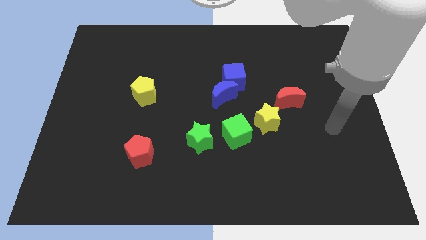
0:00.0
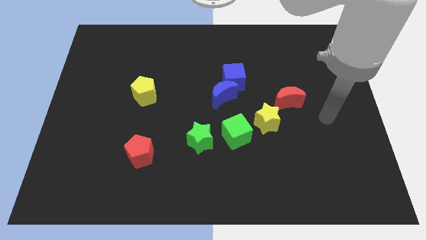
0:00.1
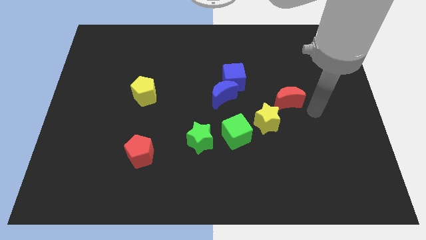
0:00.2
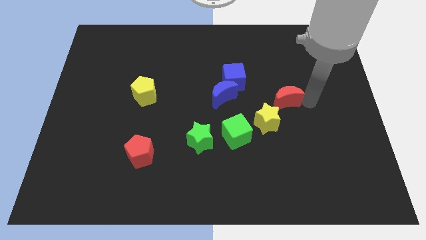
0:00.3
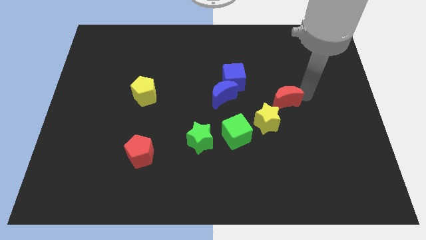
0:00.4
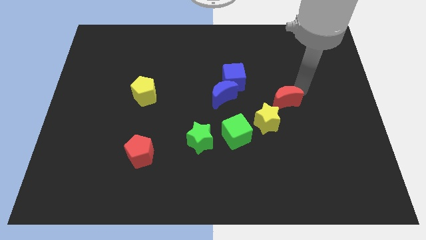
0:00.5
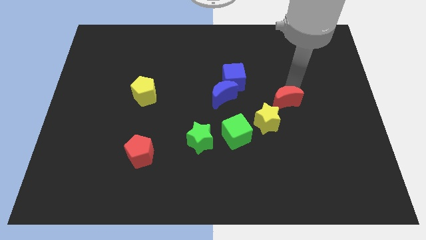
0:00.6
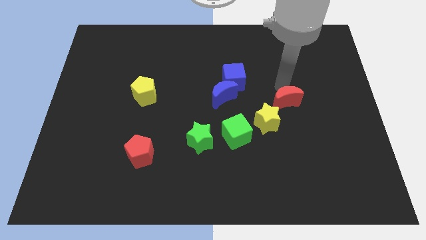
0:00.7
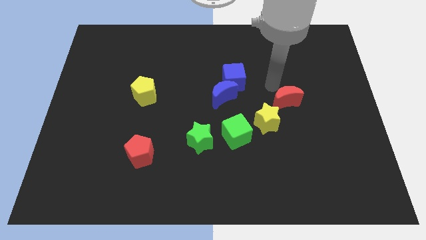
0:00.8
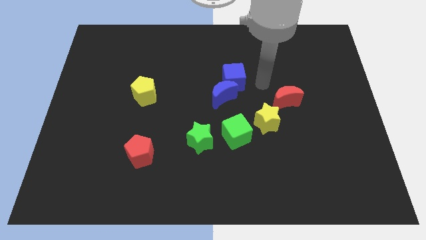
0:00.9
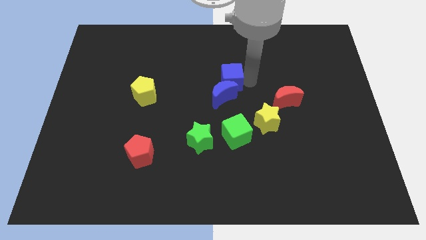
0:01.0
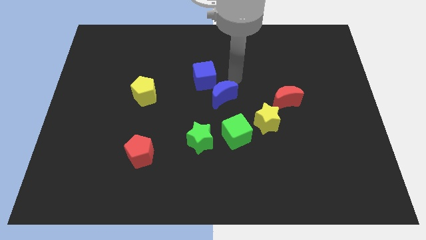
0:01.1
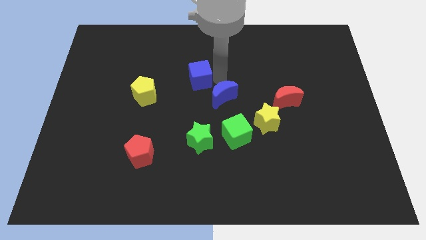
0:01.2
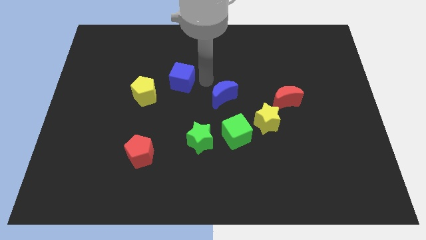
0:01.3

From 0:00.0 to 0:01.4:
move the blue moon away from the blue cube

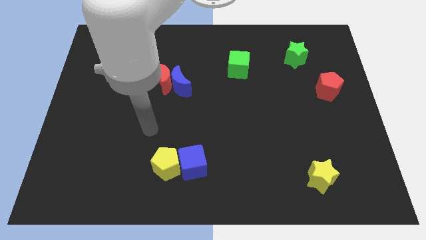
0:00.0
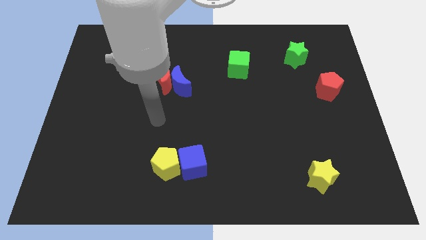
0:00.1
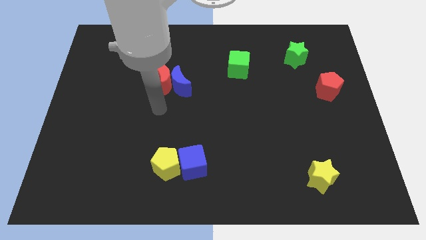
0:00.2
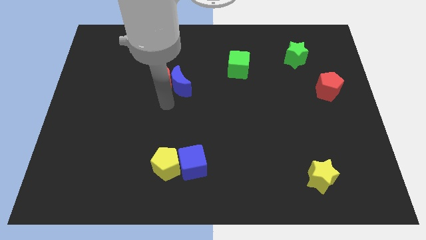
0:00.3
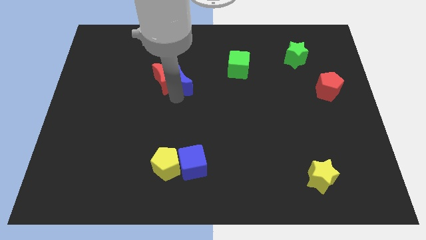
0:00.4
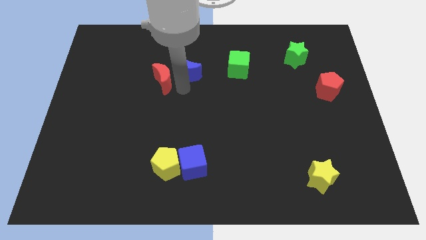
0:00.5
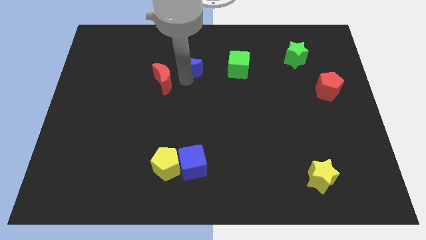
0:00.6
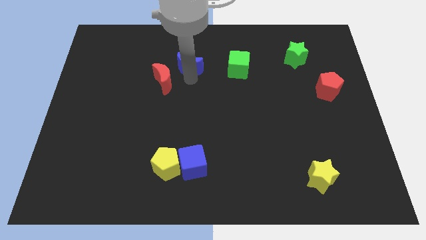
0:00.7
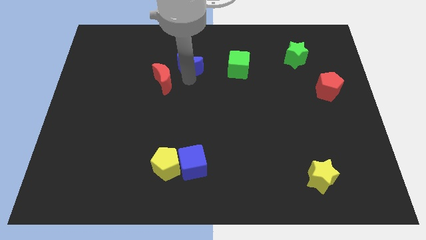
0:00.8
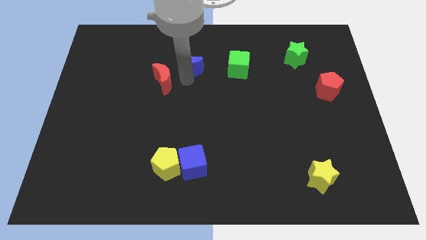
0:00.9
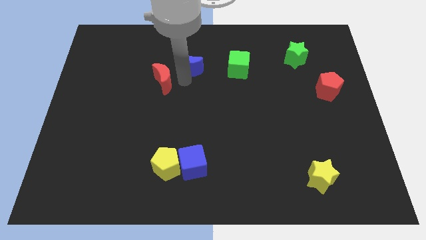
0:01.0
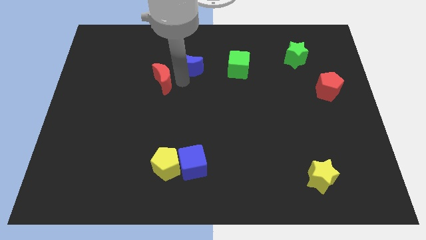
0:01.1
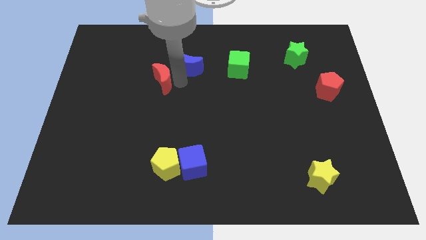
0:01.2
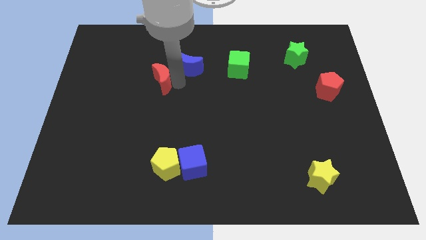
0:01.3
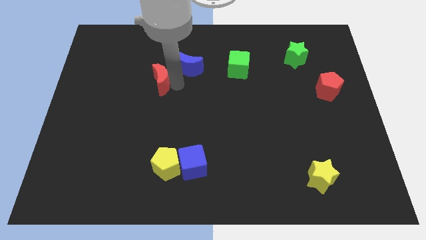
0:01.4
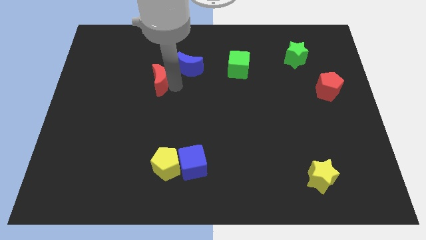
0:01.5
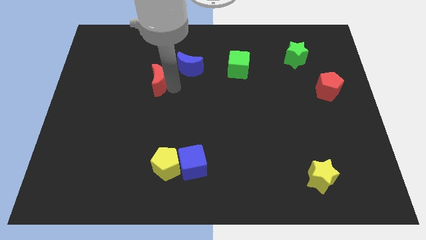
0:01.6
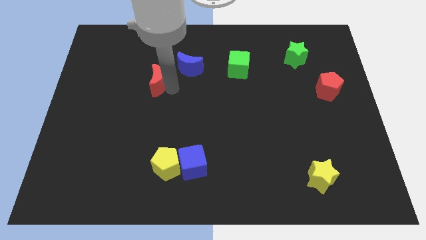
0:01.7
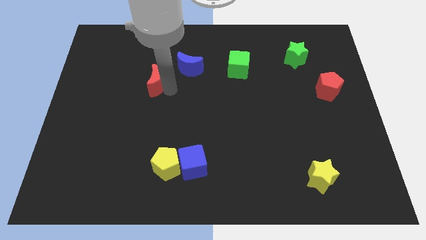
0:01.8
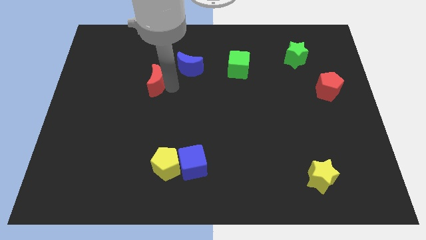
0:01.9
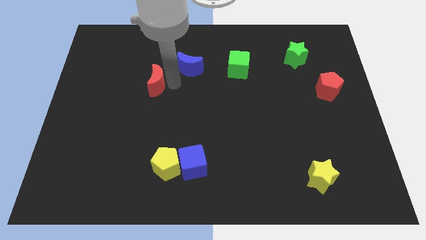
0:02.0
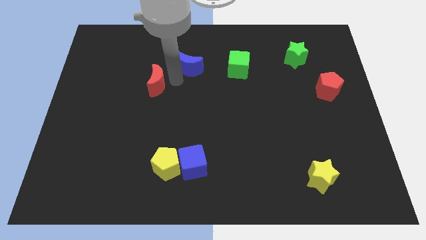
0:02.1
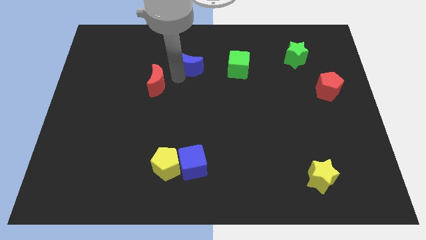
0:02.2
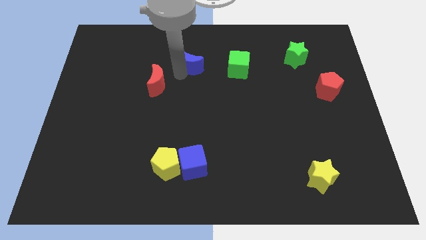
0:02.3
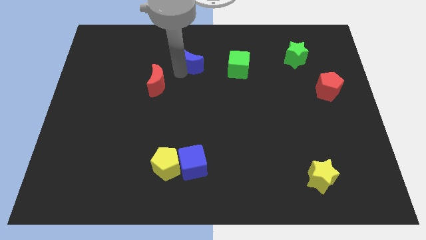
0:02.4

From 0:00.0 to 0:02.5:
separate the red moon from the blue moon

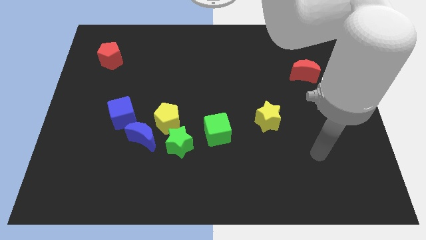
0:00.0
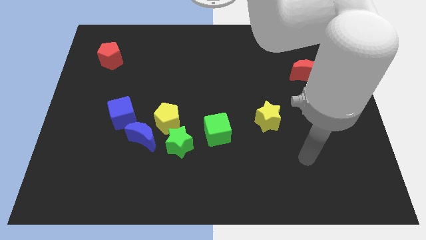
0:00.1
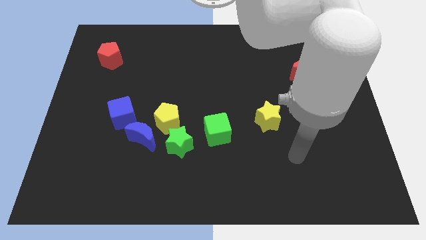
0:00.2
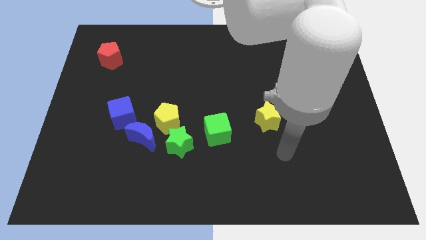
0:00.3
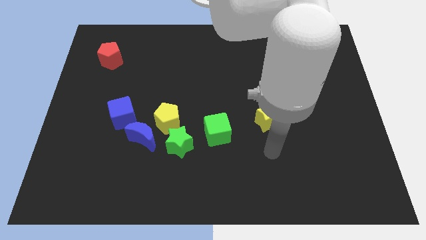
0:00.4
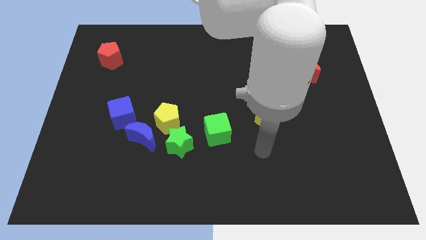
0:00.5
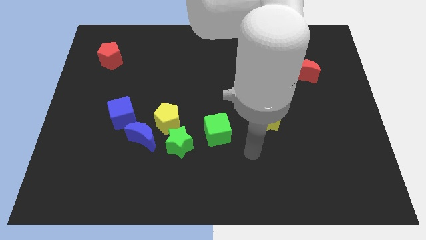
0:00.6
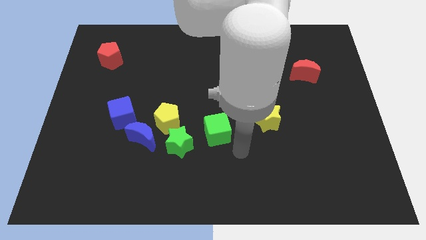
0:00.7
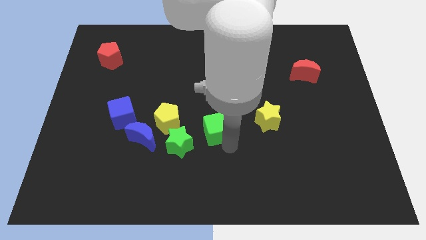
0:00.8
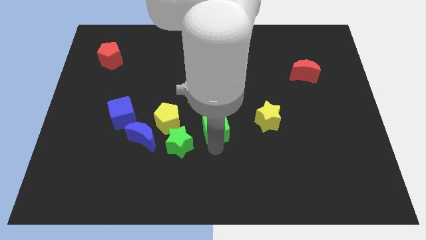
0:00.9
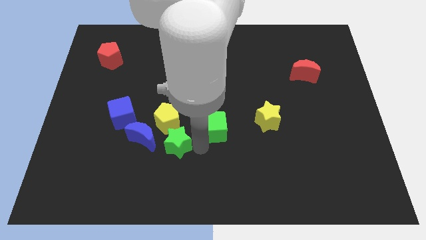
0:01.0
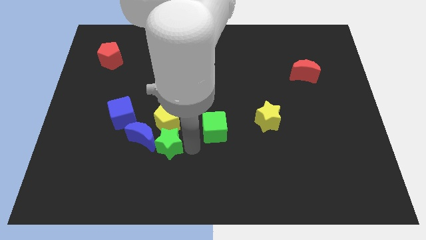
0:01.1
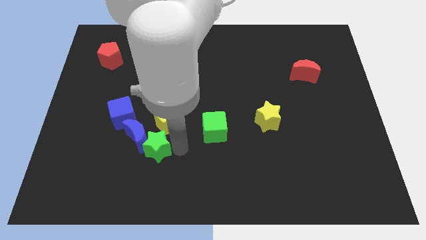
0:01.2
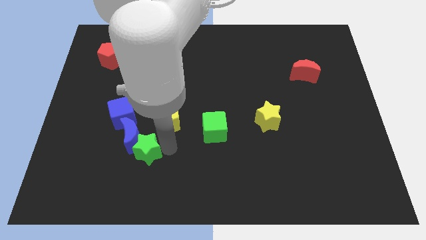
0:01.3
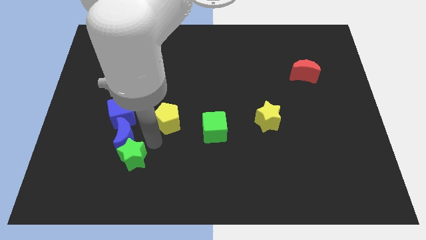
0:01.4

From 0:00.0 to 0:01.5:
separate the yellow pentagon from the blue moon and green star

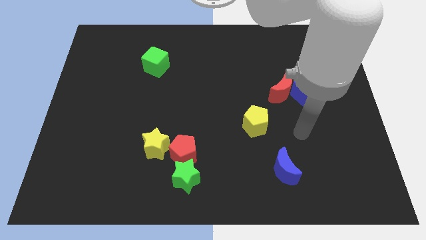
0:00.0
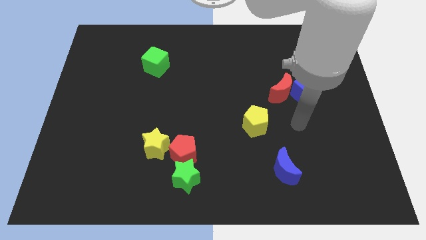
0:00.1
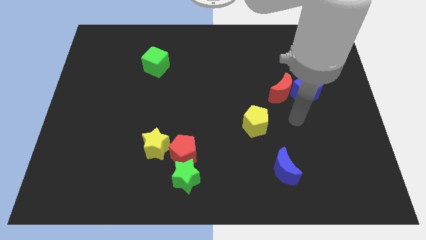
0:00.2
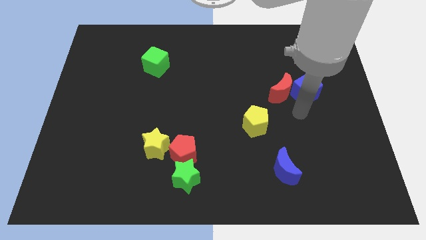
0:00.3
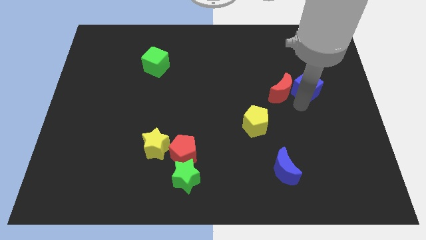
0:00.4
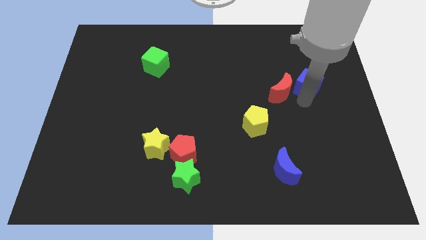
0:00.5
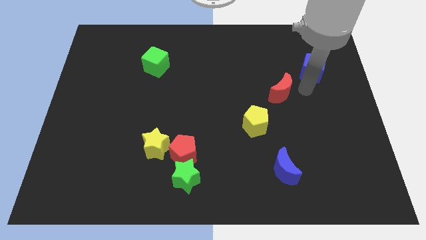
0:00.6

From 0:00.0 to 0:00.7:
move the red moon away from the blue cube

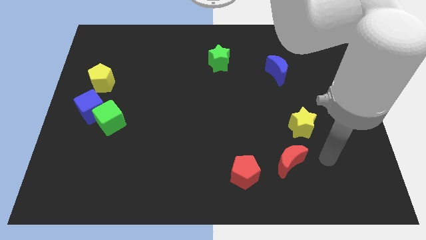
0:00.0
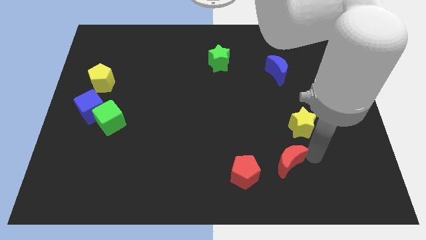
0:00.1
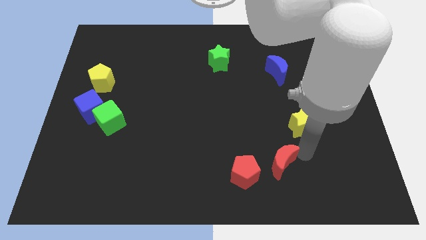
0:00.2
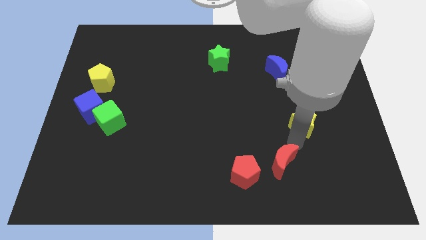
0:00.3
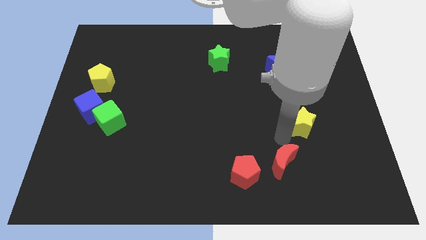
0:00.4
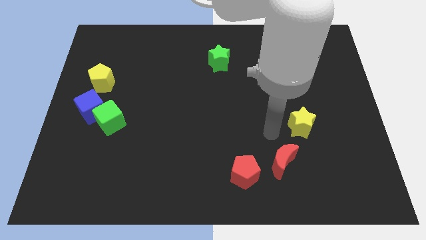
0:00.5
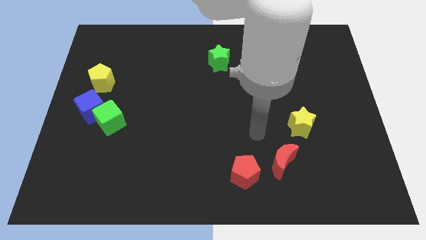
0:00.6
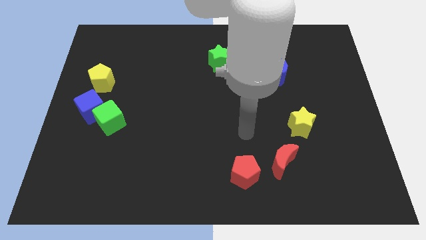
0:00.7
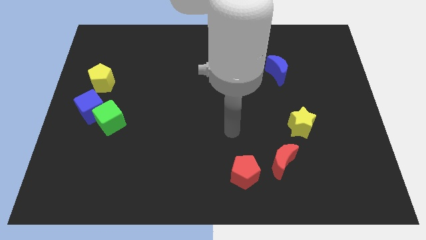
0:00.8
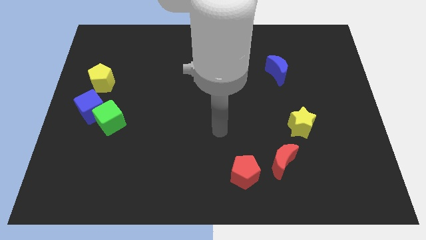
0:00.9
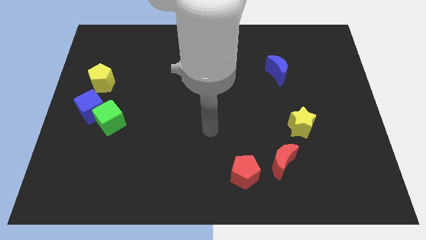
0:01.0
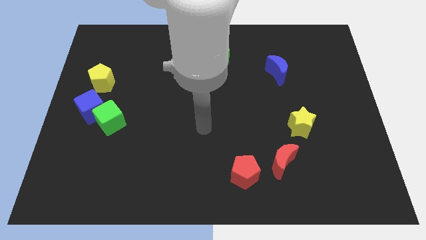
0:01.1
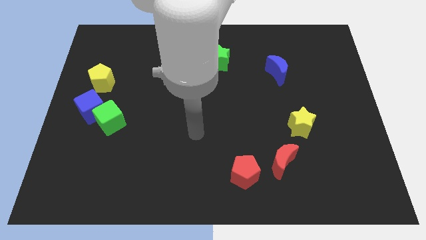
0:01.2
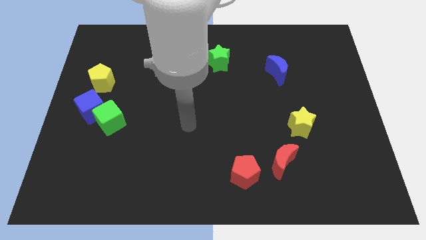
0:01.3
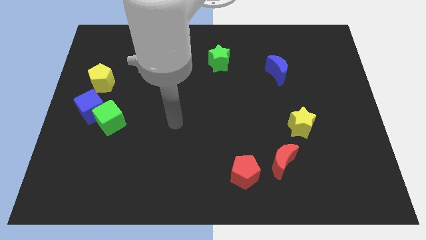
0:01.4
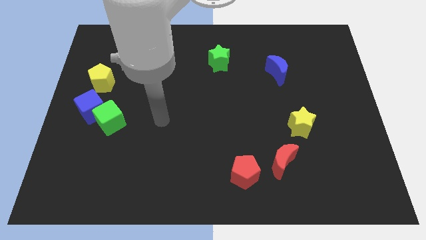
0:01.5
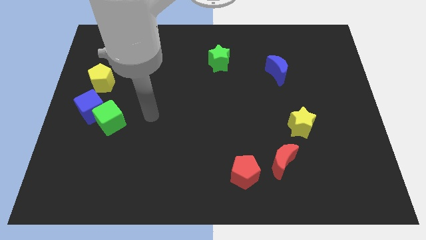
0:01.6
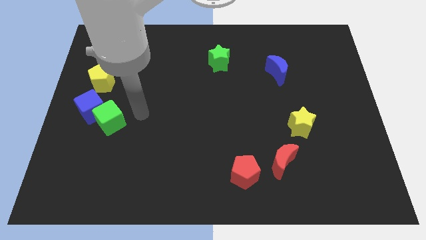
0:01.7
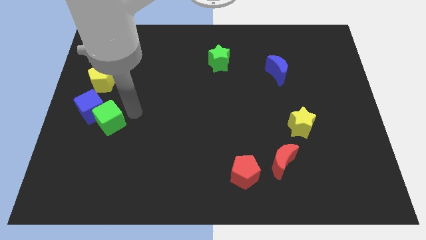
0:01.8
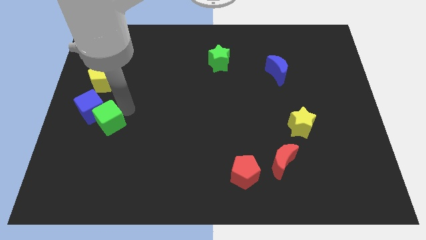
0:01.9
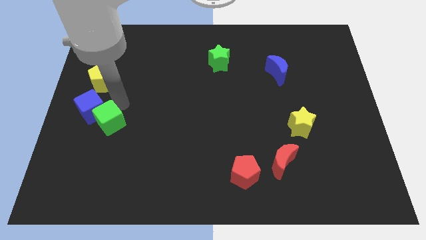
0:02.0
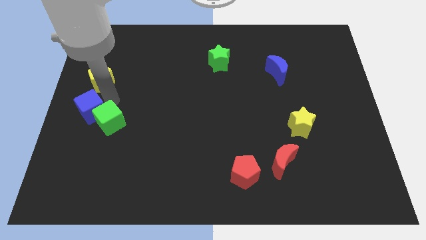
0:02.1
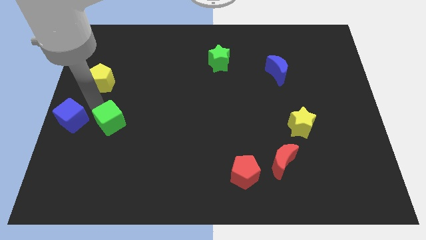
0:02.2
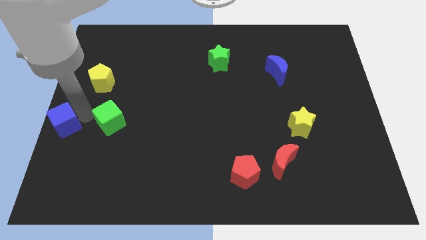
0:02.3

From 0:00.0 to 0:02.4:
move the green cube away from the blue cube

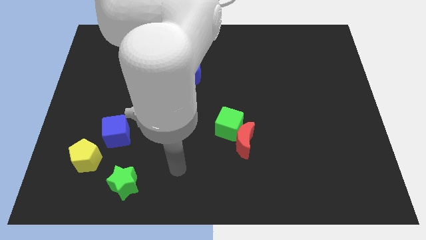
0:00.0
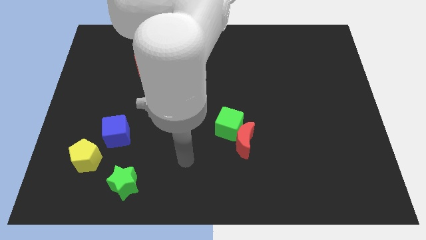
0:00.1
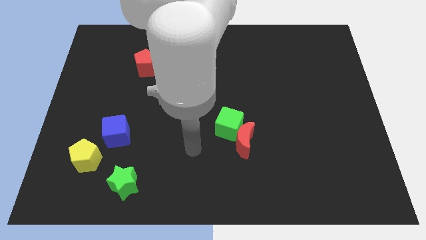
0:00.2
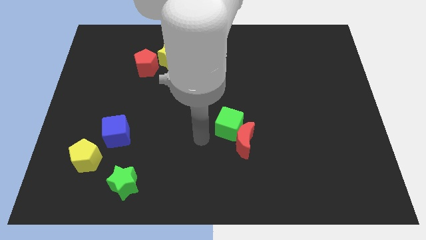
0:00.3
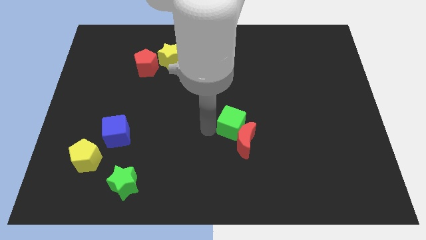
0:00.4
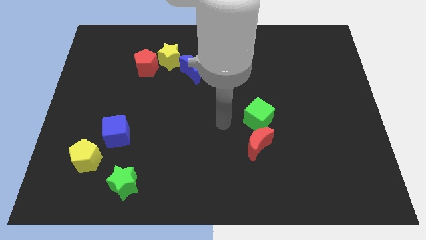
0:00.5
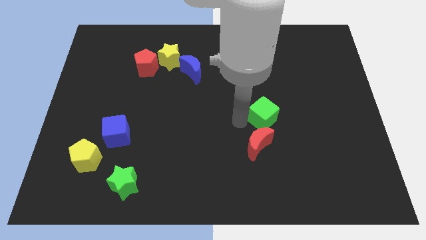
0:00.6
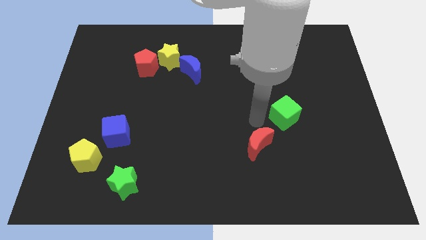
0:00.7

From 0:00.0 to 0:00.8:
separate the red moon from the green cube
